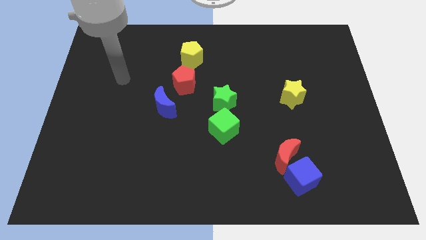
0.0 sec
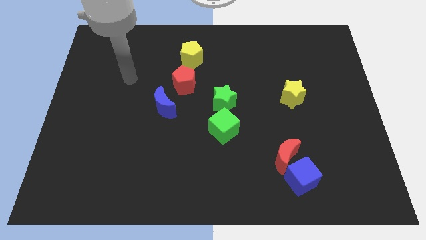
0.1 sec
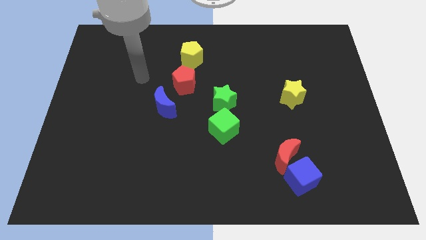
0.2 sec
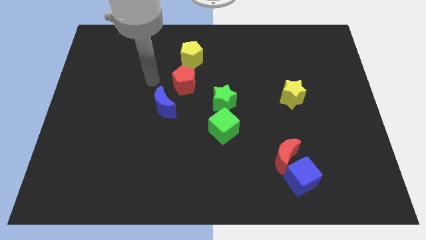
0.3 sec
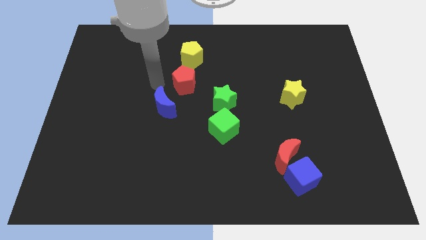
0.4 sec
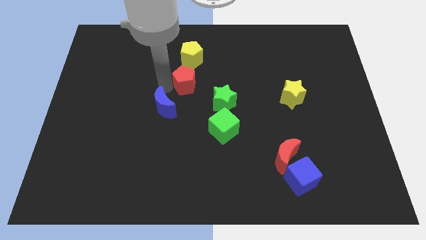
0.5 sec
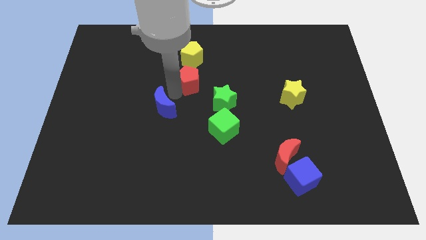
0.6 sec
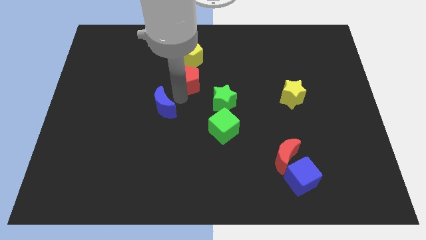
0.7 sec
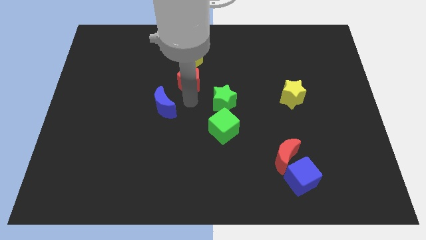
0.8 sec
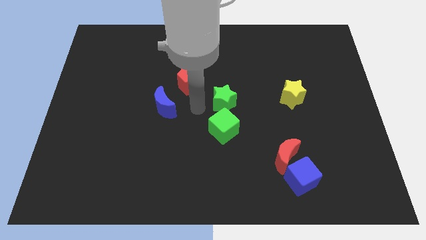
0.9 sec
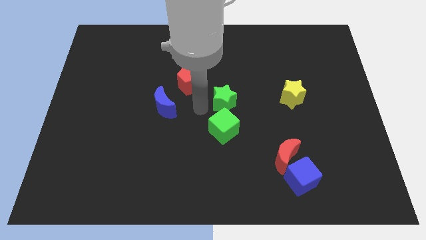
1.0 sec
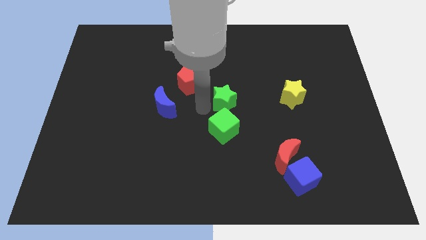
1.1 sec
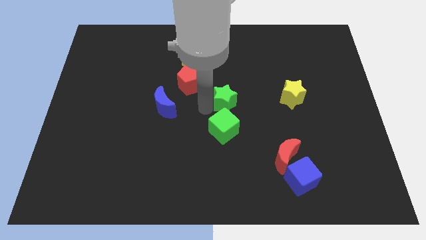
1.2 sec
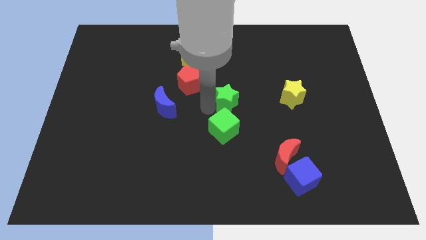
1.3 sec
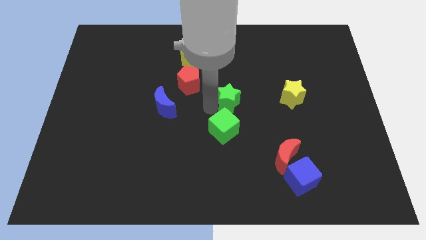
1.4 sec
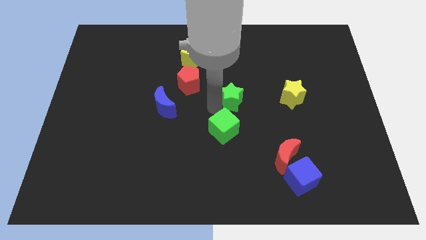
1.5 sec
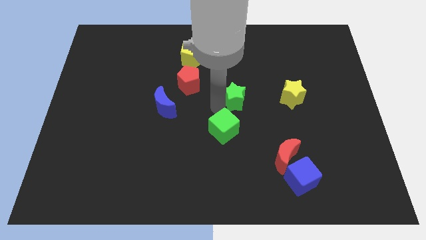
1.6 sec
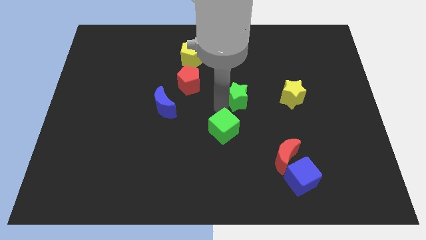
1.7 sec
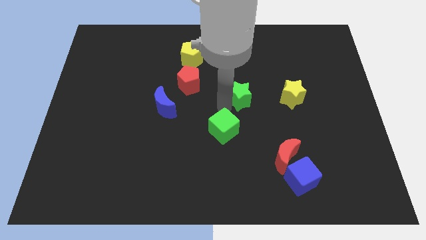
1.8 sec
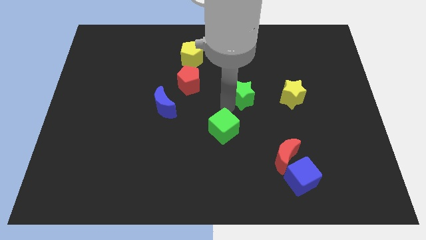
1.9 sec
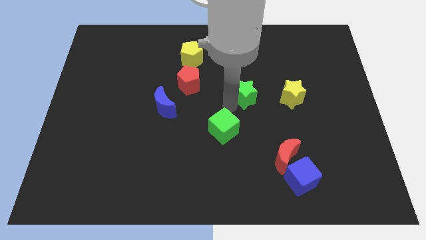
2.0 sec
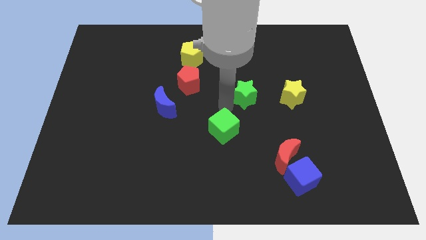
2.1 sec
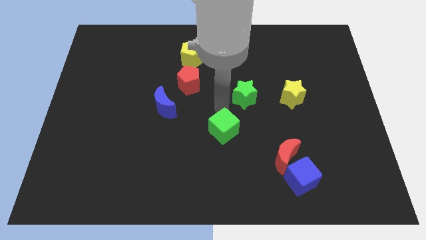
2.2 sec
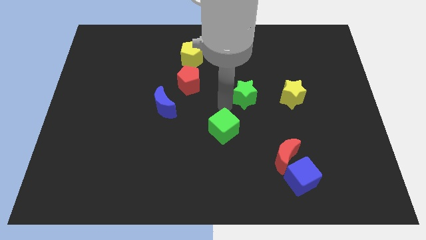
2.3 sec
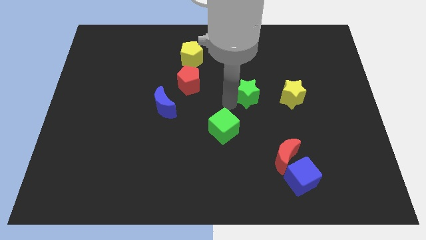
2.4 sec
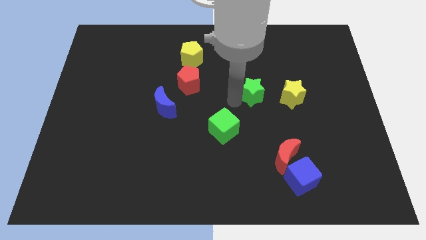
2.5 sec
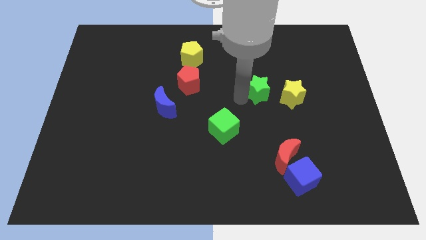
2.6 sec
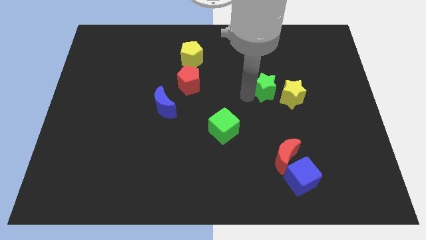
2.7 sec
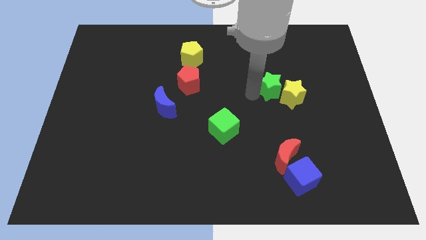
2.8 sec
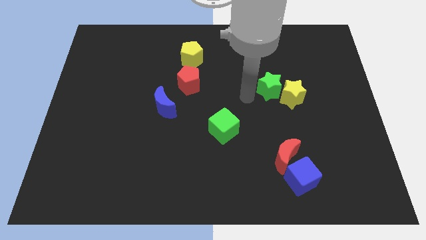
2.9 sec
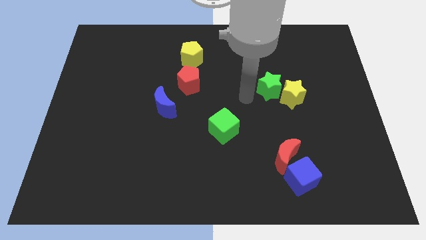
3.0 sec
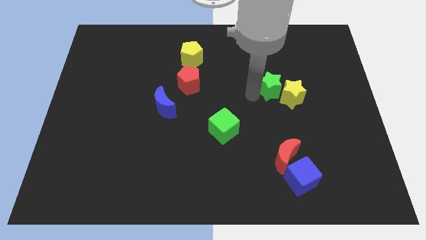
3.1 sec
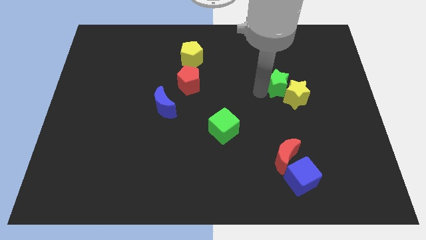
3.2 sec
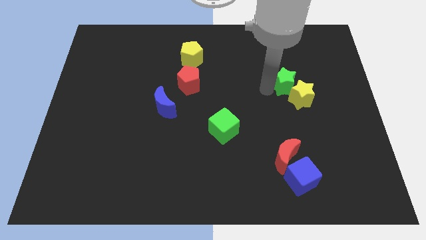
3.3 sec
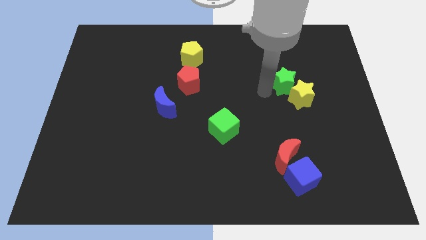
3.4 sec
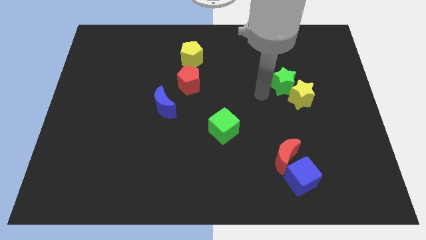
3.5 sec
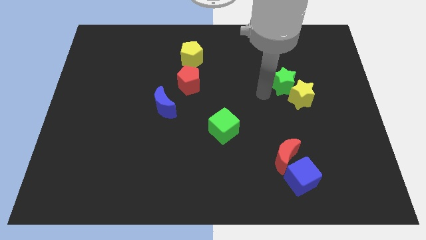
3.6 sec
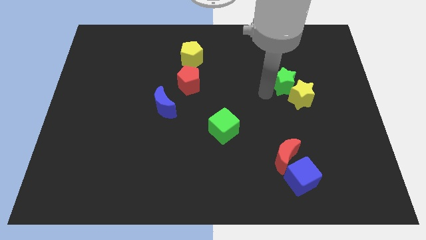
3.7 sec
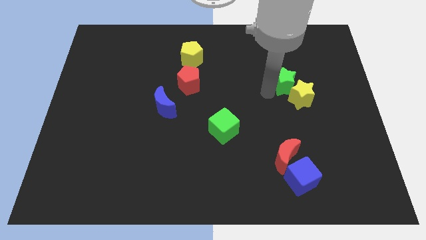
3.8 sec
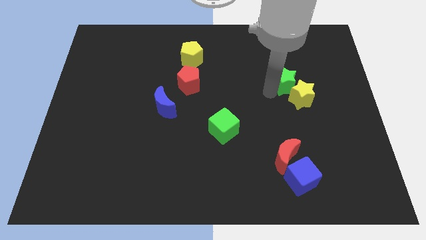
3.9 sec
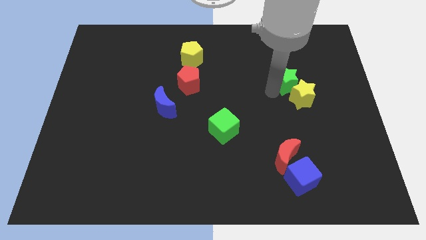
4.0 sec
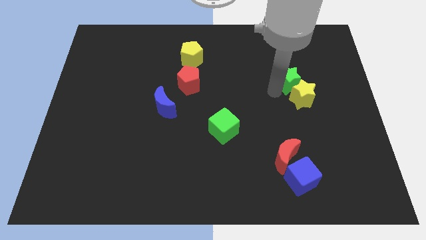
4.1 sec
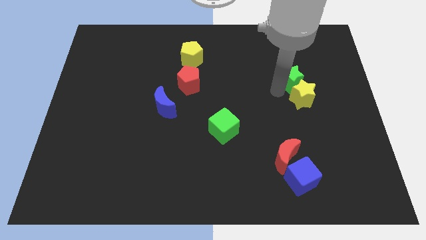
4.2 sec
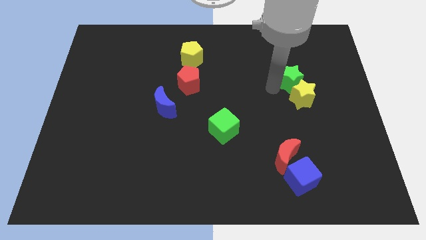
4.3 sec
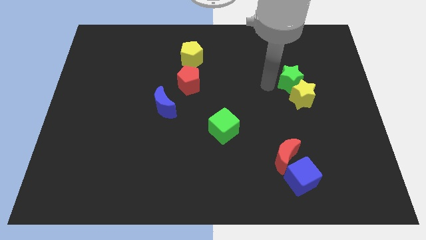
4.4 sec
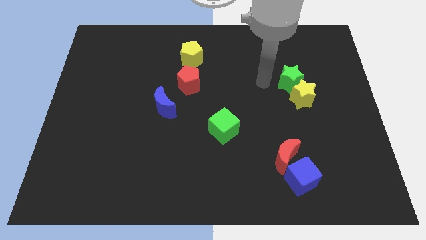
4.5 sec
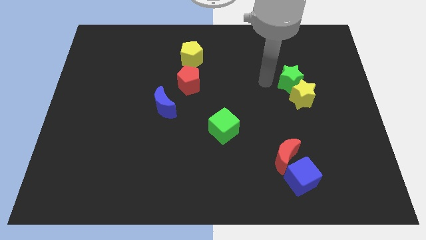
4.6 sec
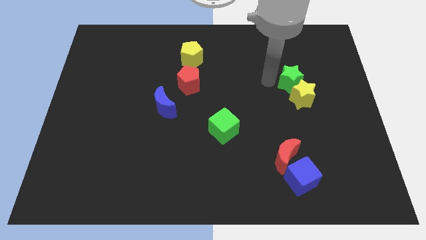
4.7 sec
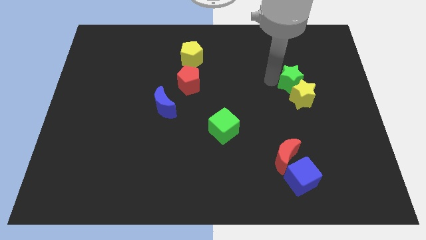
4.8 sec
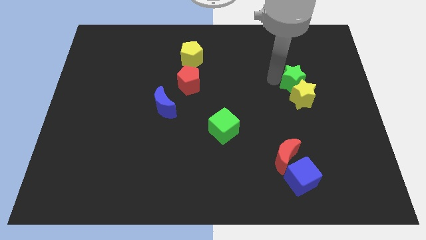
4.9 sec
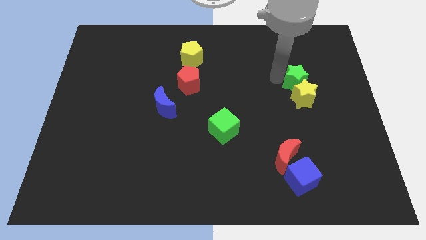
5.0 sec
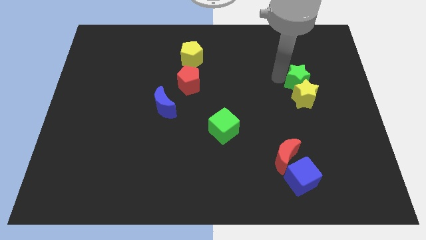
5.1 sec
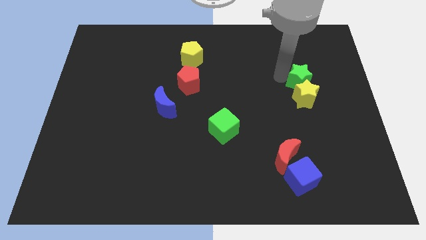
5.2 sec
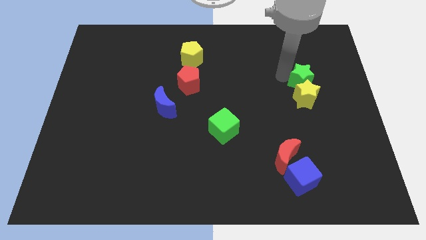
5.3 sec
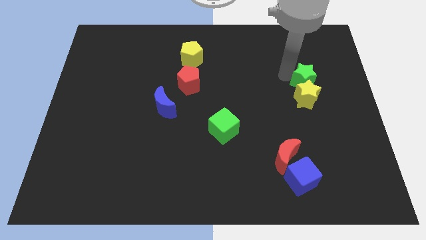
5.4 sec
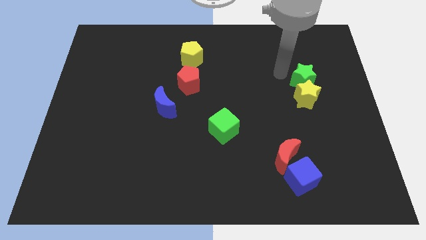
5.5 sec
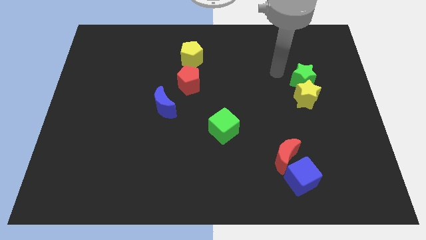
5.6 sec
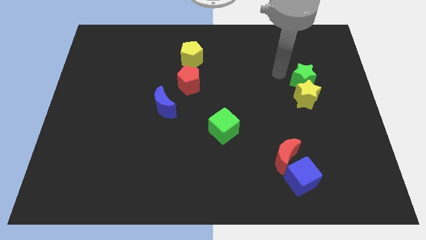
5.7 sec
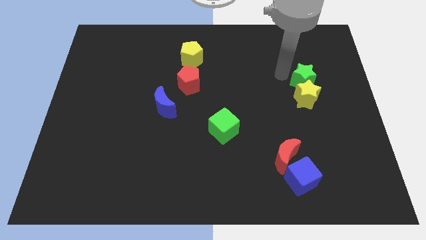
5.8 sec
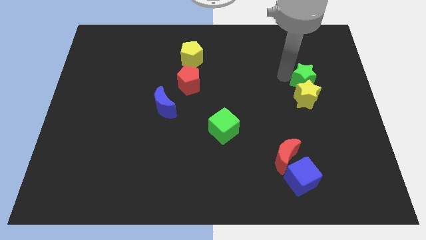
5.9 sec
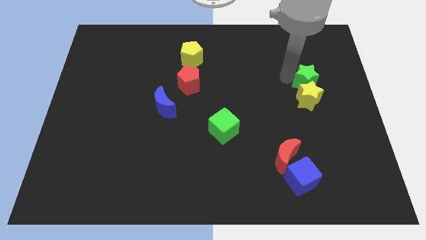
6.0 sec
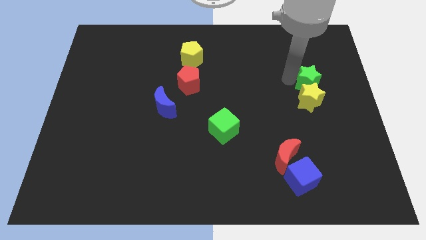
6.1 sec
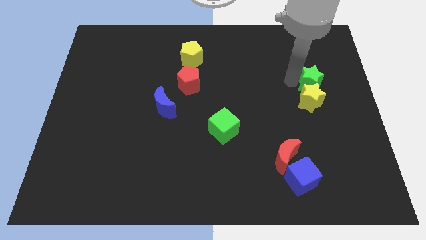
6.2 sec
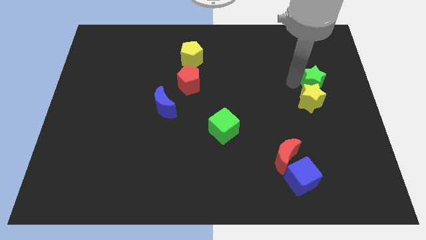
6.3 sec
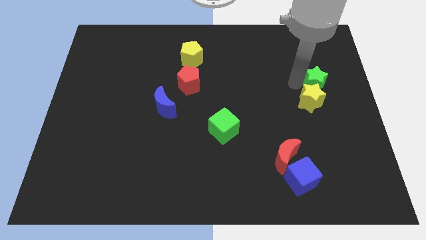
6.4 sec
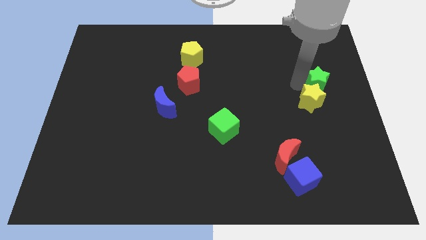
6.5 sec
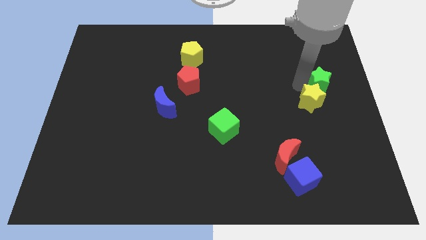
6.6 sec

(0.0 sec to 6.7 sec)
push the green star to the right side of the board

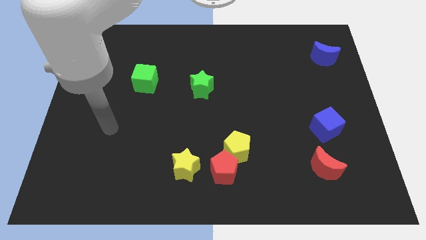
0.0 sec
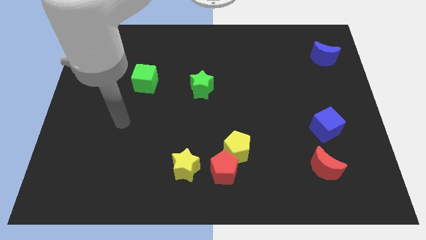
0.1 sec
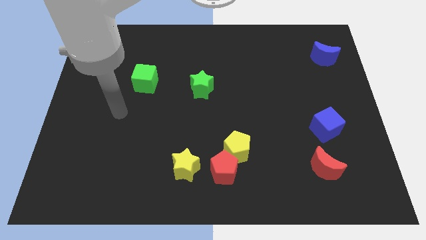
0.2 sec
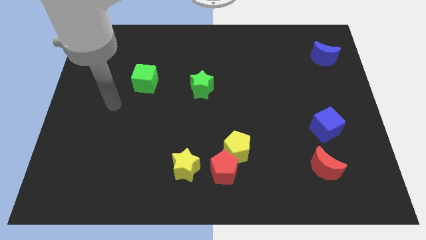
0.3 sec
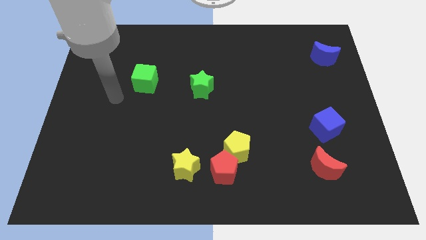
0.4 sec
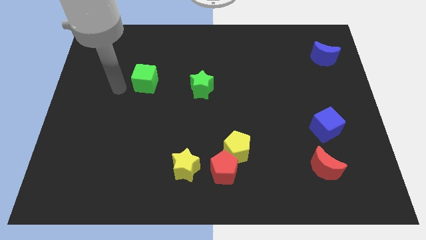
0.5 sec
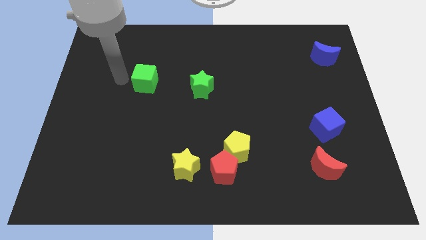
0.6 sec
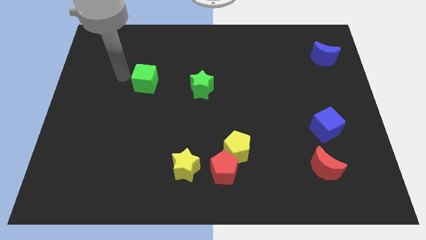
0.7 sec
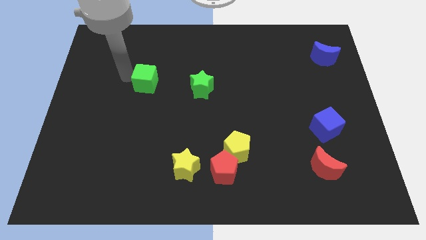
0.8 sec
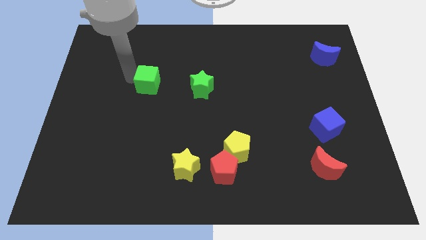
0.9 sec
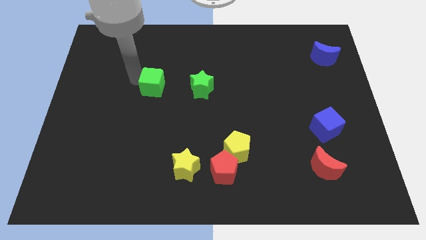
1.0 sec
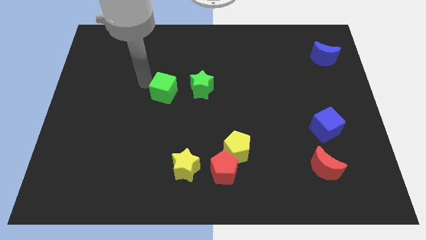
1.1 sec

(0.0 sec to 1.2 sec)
slide the green cube to the center
